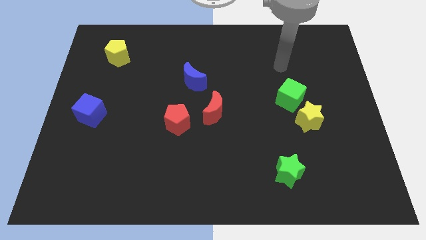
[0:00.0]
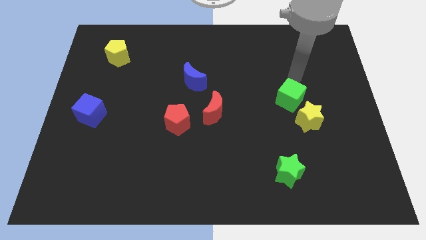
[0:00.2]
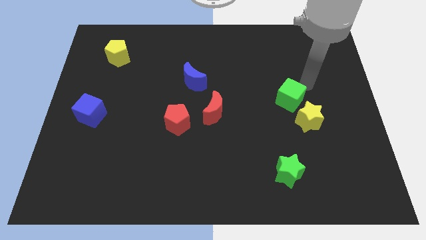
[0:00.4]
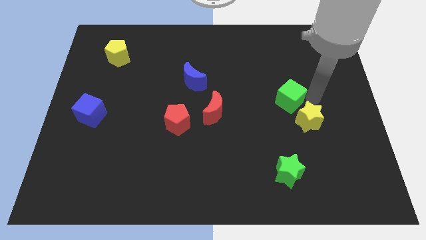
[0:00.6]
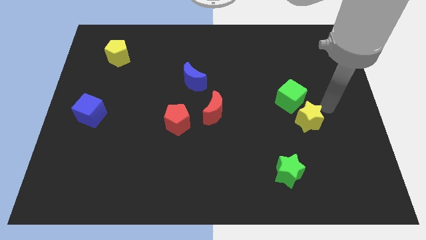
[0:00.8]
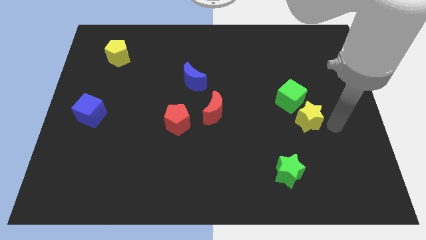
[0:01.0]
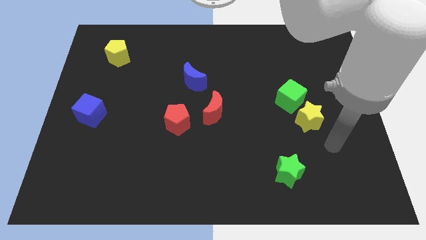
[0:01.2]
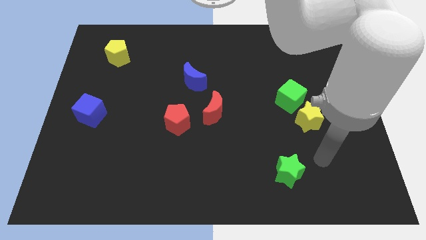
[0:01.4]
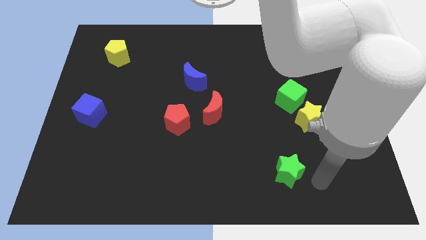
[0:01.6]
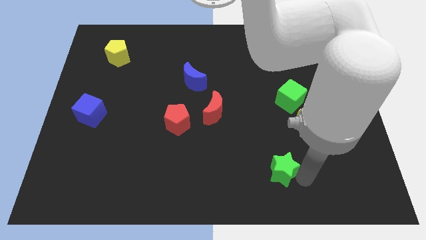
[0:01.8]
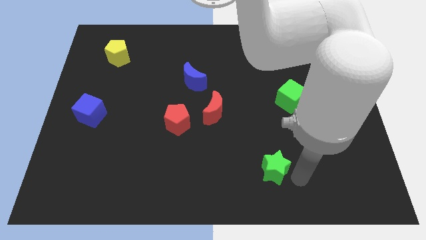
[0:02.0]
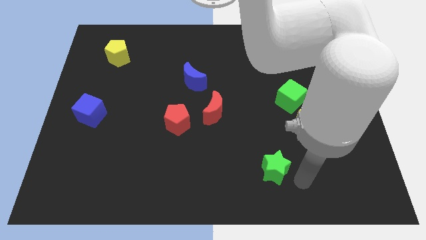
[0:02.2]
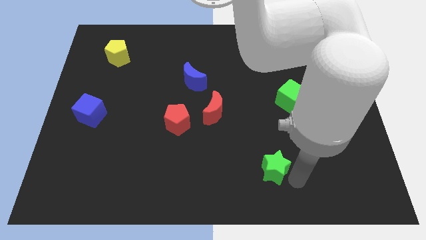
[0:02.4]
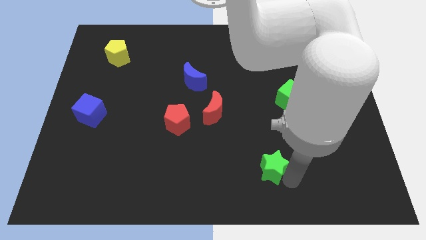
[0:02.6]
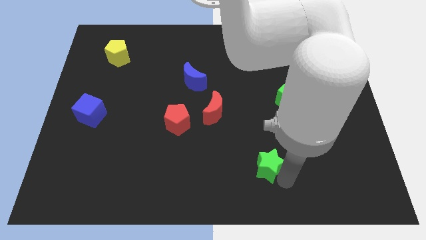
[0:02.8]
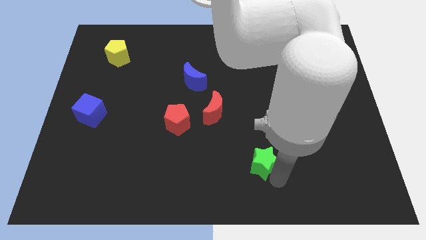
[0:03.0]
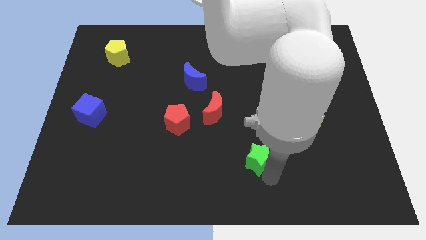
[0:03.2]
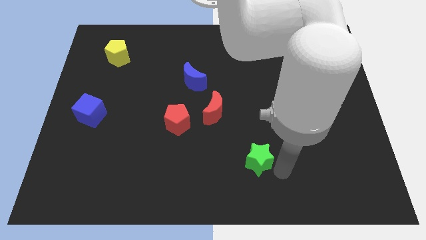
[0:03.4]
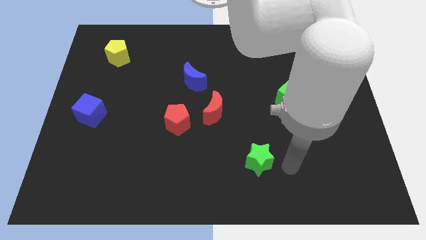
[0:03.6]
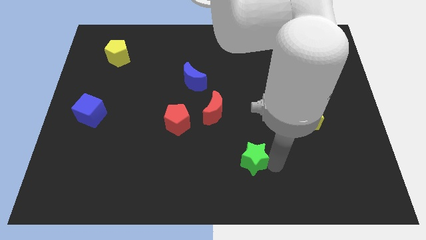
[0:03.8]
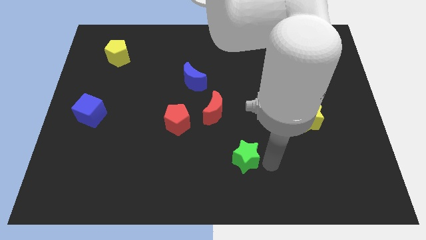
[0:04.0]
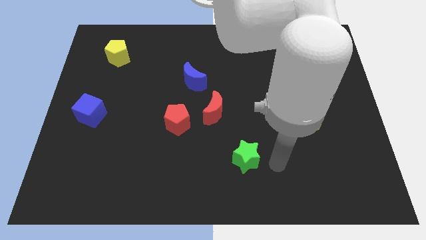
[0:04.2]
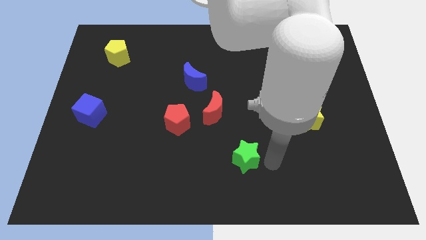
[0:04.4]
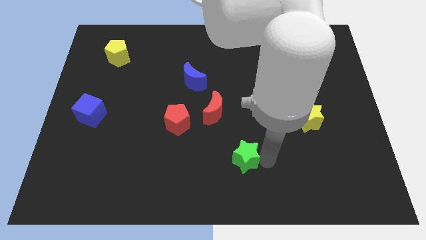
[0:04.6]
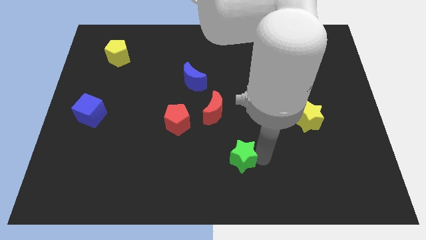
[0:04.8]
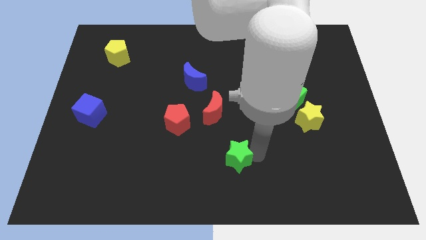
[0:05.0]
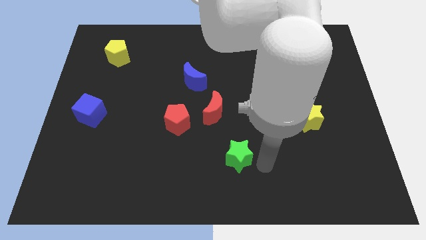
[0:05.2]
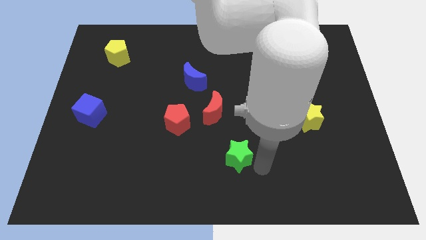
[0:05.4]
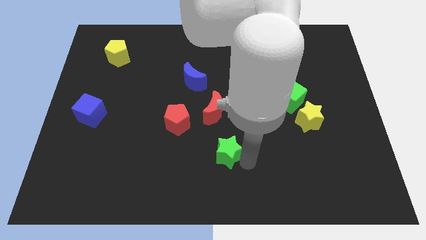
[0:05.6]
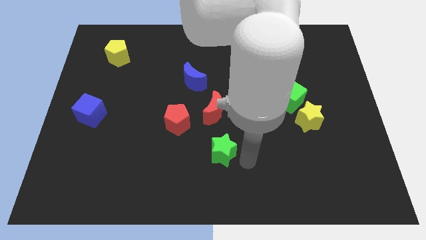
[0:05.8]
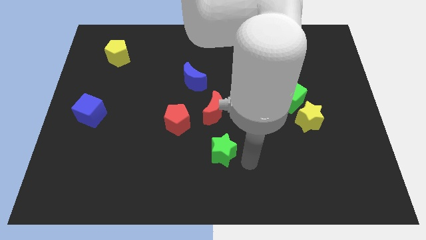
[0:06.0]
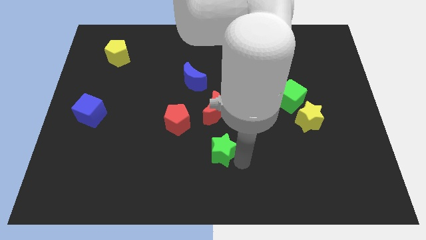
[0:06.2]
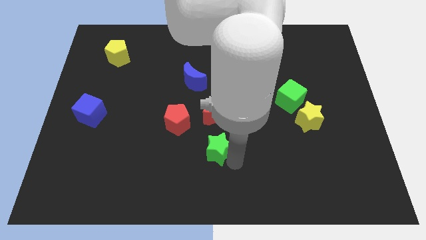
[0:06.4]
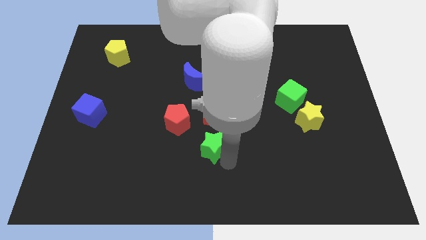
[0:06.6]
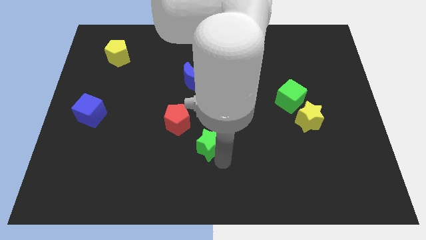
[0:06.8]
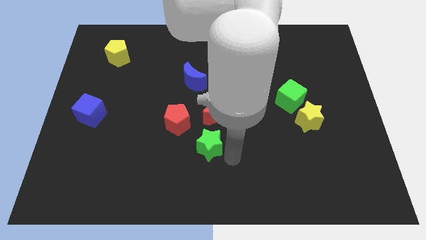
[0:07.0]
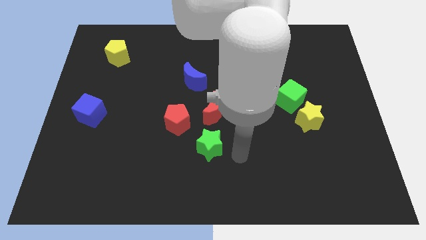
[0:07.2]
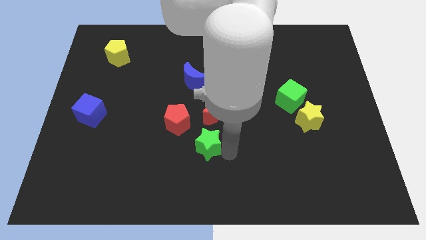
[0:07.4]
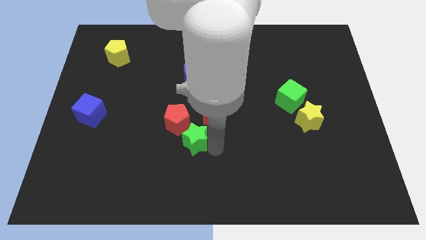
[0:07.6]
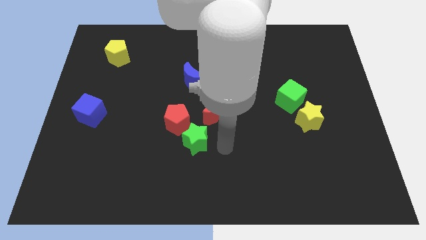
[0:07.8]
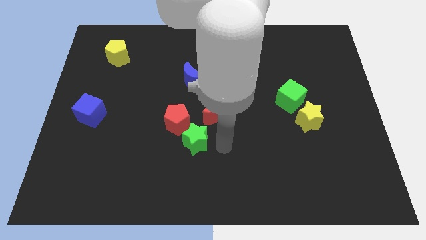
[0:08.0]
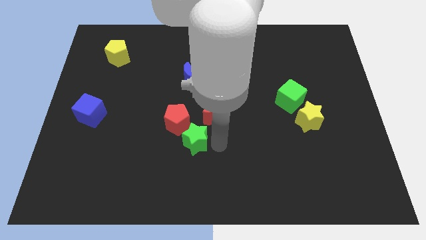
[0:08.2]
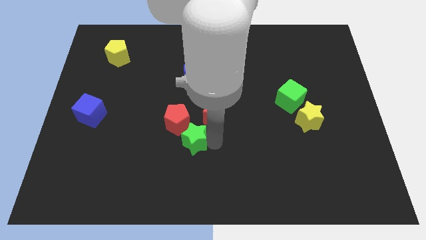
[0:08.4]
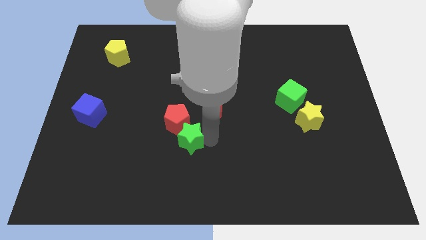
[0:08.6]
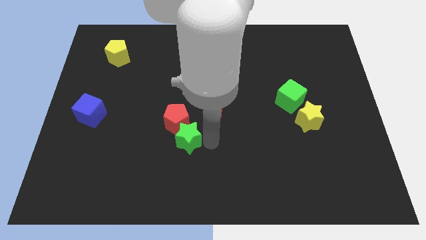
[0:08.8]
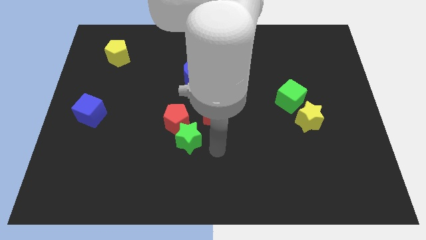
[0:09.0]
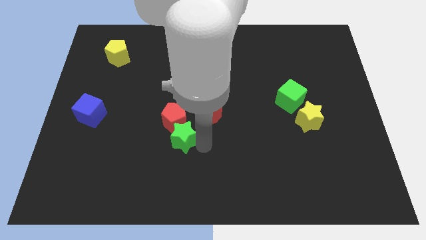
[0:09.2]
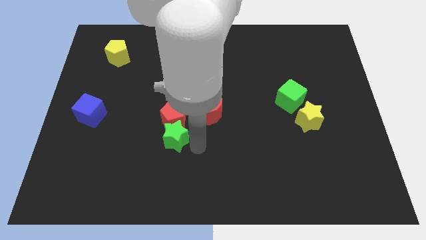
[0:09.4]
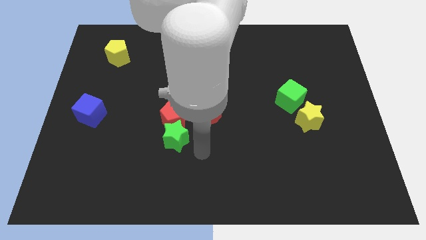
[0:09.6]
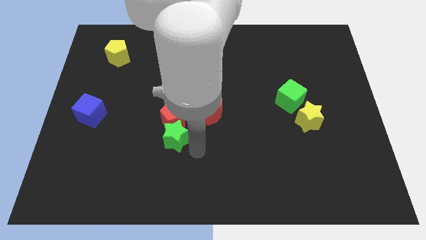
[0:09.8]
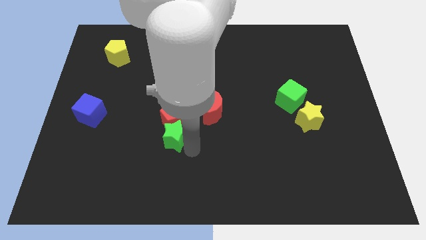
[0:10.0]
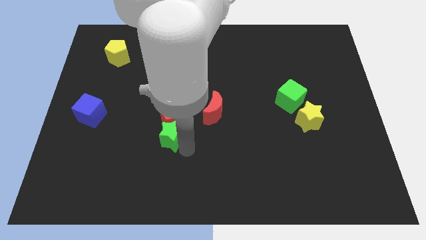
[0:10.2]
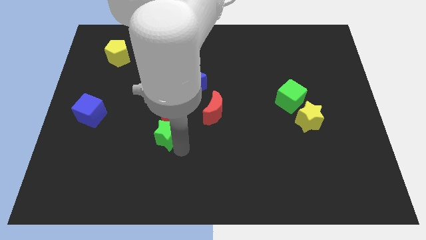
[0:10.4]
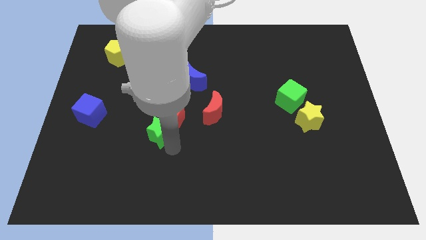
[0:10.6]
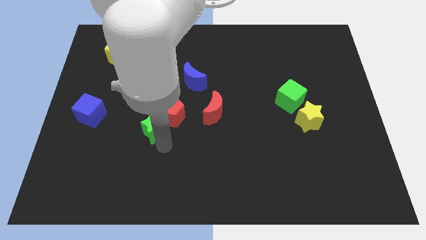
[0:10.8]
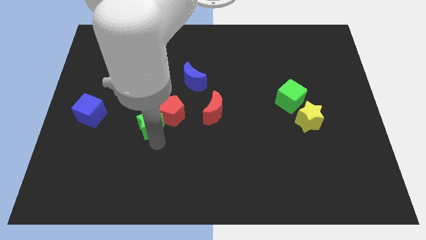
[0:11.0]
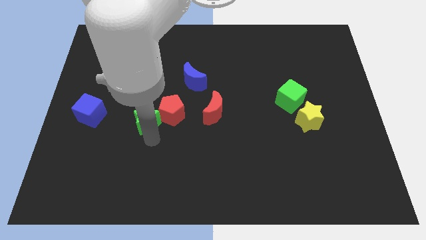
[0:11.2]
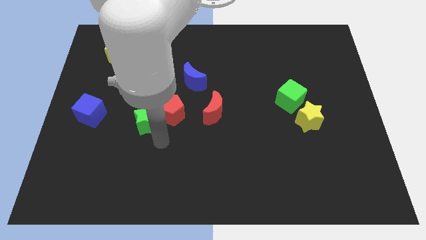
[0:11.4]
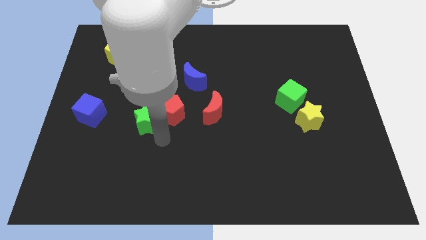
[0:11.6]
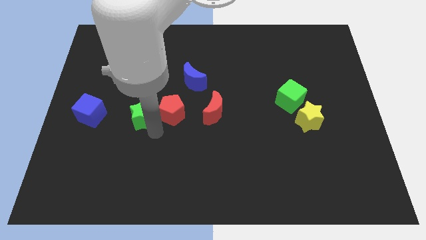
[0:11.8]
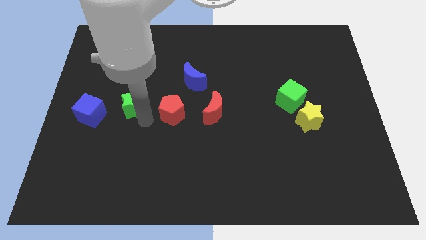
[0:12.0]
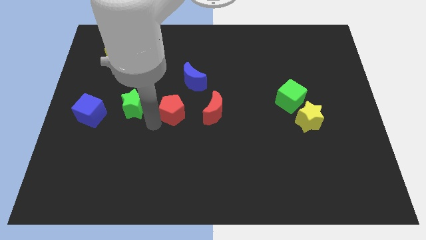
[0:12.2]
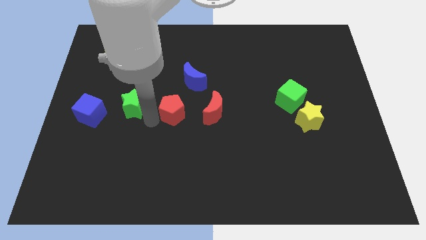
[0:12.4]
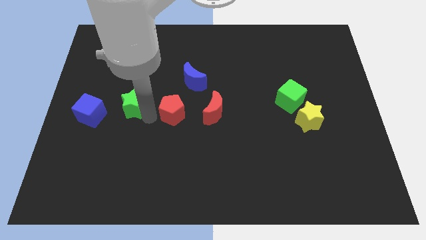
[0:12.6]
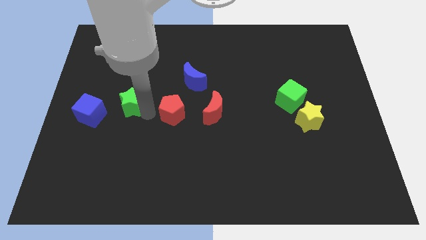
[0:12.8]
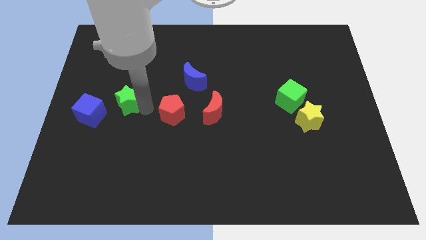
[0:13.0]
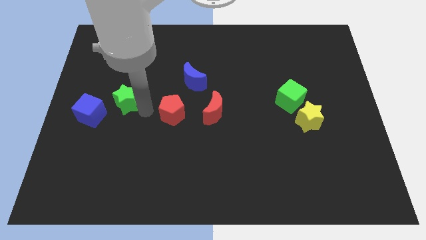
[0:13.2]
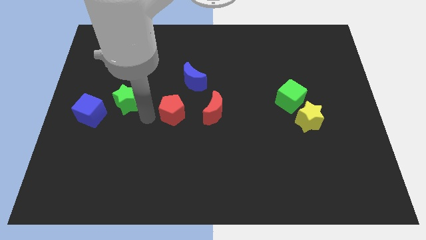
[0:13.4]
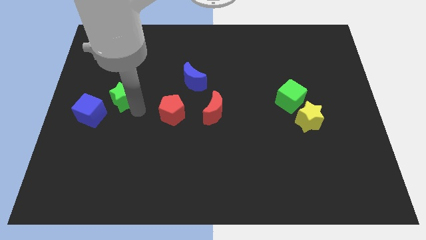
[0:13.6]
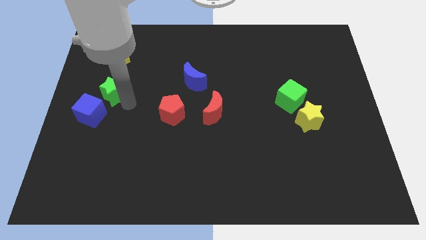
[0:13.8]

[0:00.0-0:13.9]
put the green star to the top of the blue cube

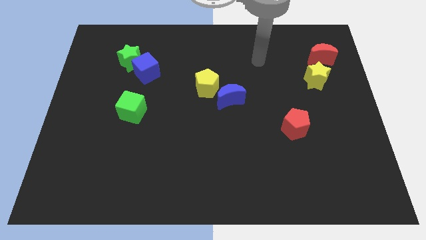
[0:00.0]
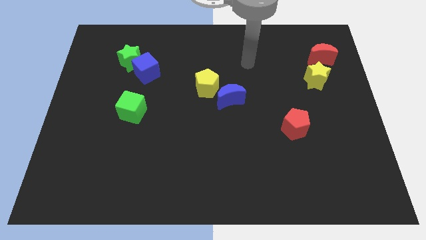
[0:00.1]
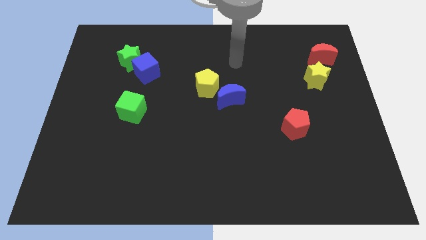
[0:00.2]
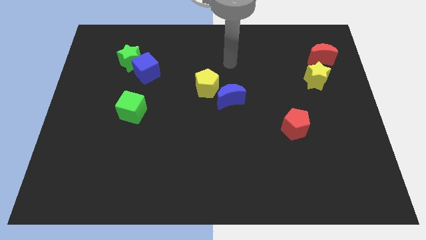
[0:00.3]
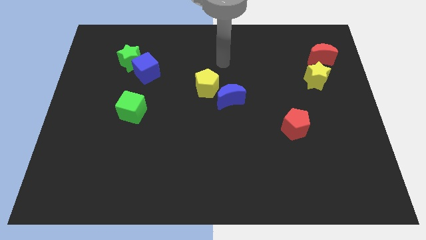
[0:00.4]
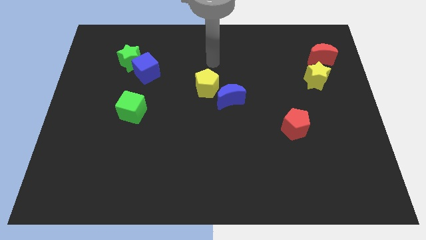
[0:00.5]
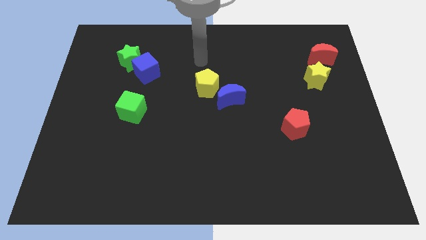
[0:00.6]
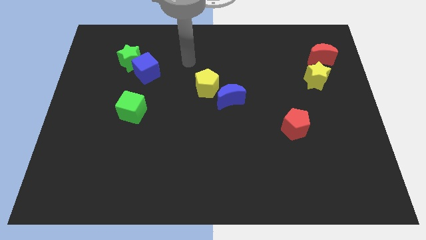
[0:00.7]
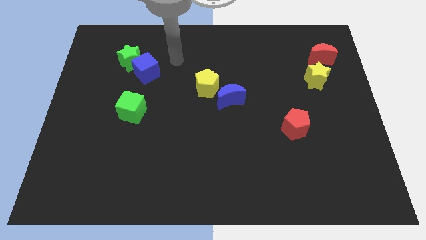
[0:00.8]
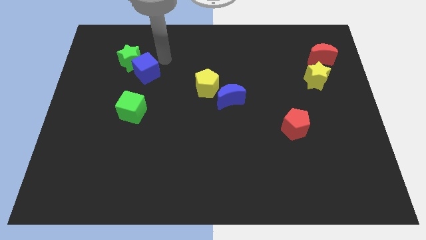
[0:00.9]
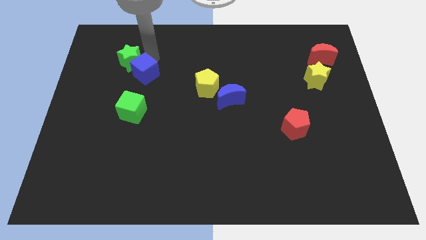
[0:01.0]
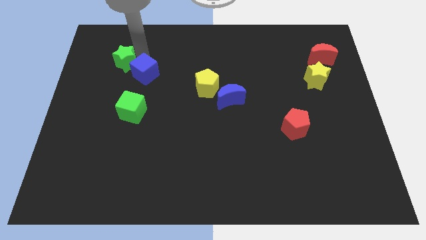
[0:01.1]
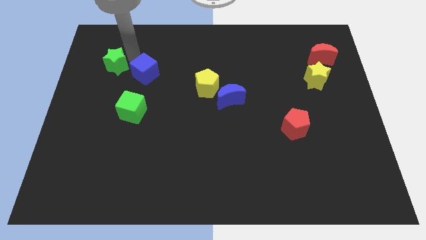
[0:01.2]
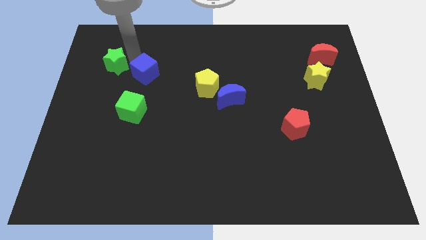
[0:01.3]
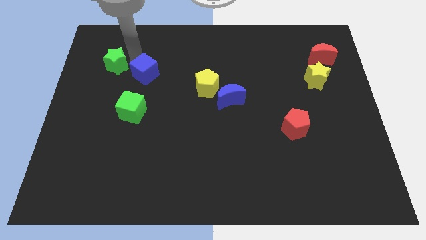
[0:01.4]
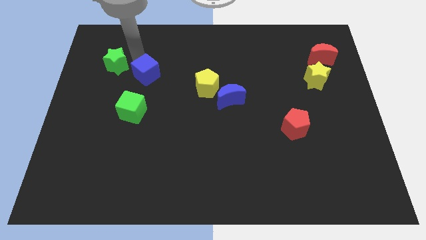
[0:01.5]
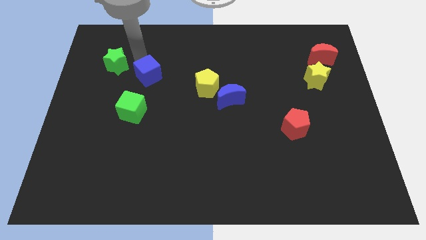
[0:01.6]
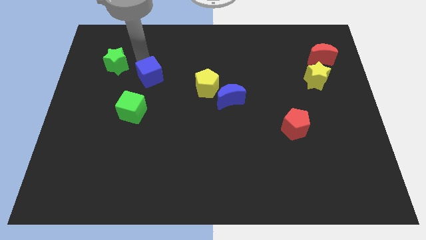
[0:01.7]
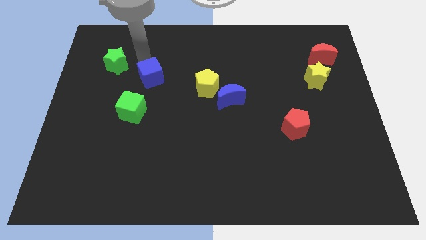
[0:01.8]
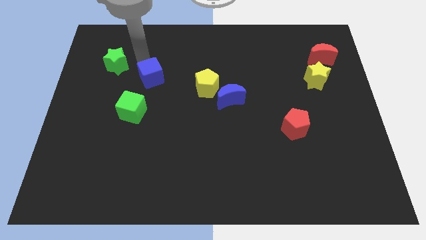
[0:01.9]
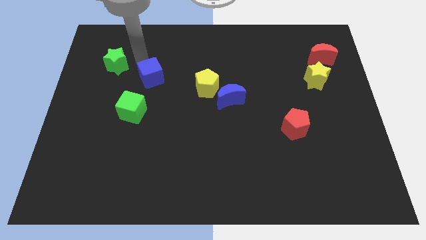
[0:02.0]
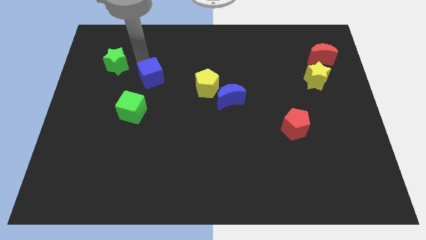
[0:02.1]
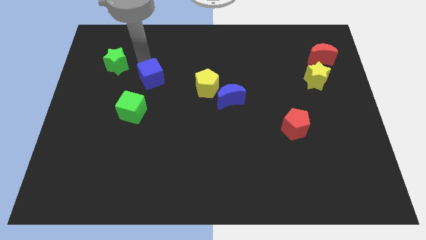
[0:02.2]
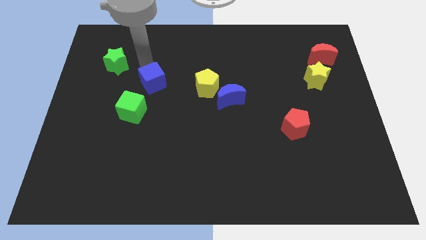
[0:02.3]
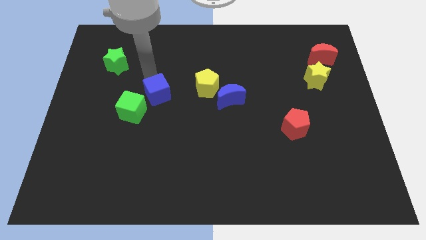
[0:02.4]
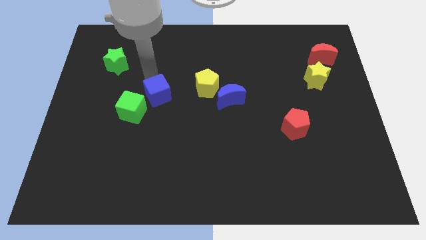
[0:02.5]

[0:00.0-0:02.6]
push the blue cube right of the green cube
